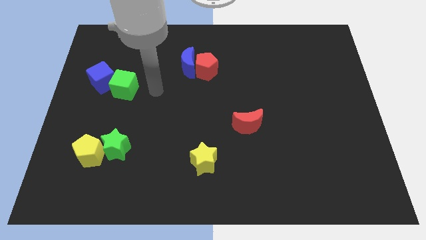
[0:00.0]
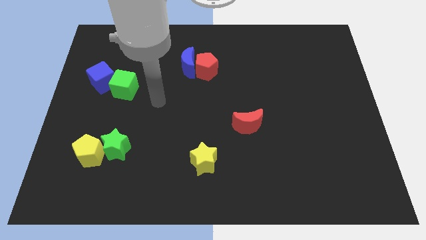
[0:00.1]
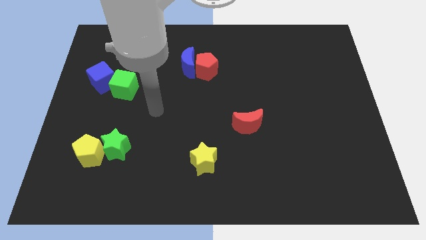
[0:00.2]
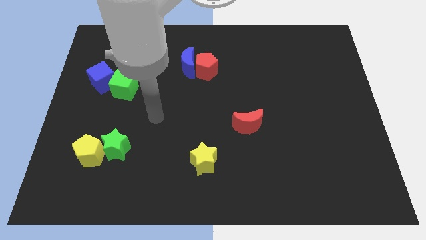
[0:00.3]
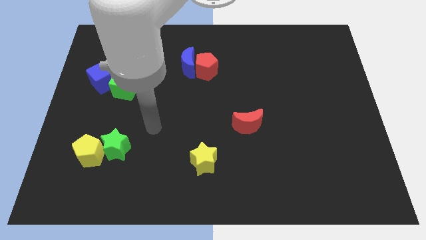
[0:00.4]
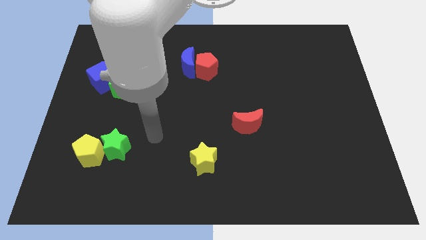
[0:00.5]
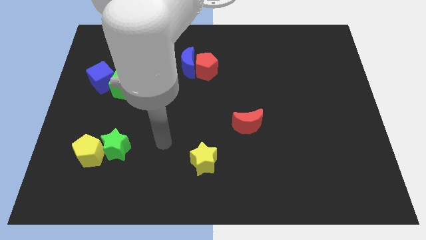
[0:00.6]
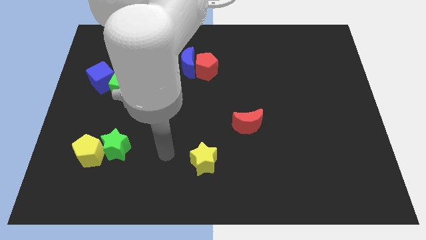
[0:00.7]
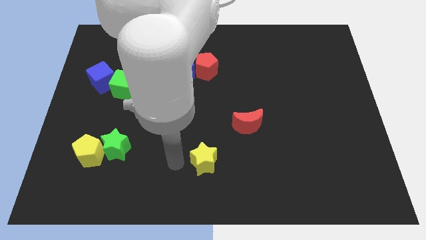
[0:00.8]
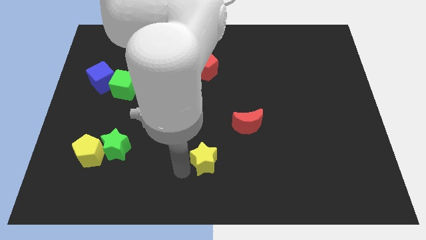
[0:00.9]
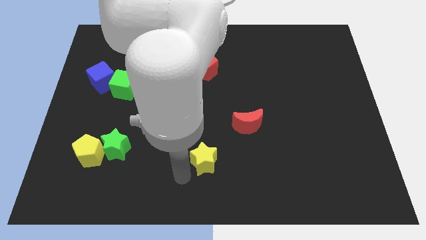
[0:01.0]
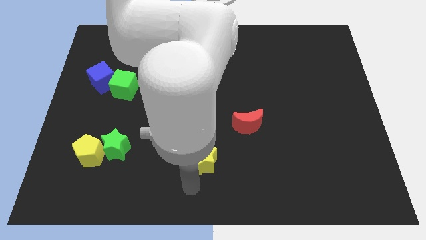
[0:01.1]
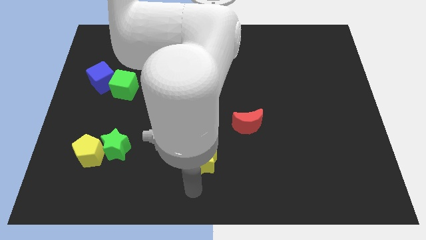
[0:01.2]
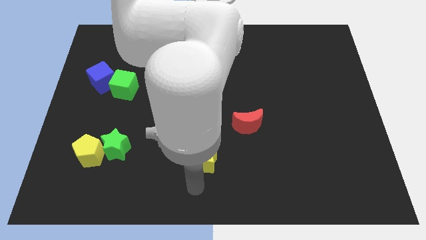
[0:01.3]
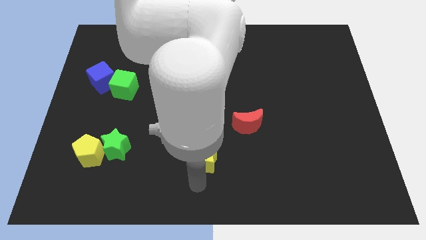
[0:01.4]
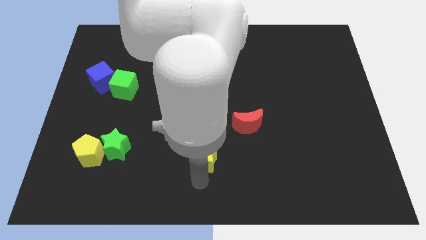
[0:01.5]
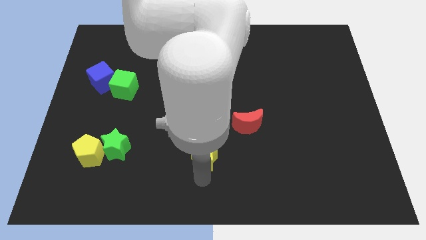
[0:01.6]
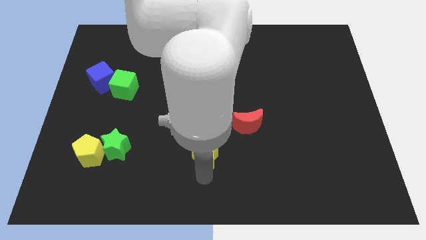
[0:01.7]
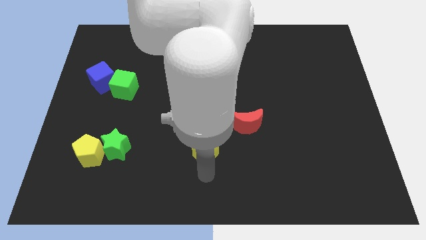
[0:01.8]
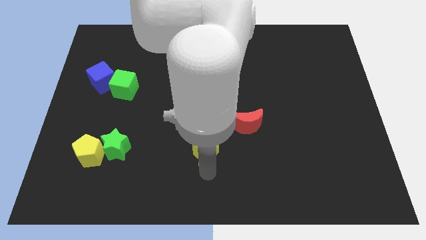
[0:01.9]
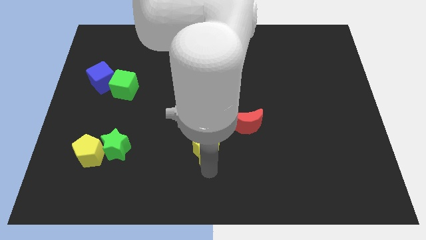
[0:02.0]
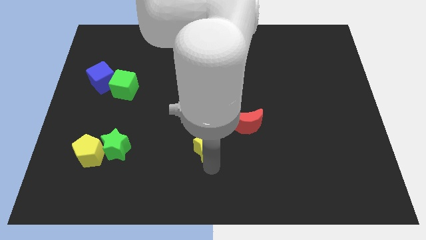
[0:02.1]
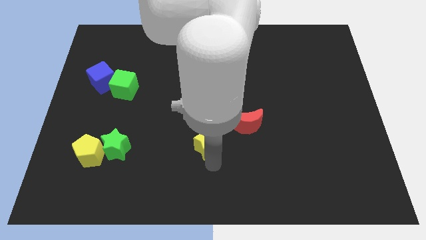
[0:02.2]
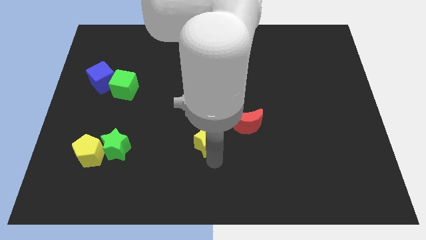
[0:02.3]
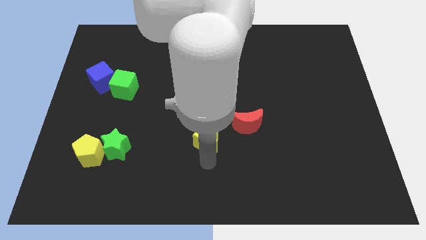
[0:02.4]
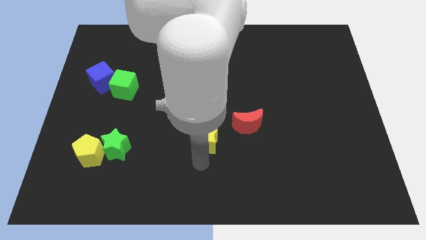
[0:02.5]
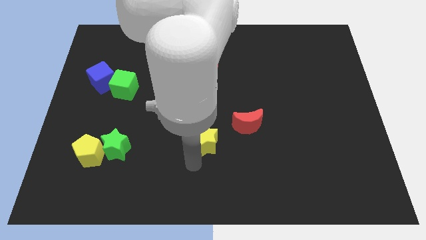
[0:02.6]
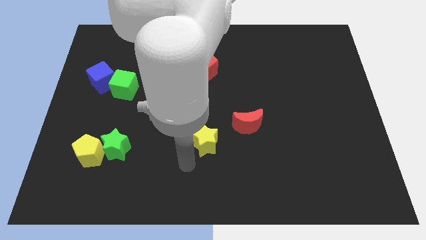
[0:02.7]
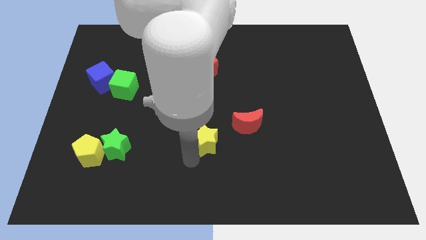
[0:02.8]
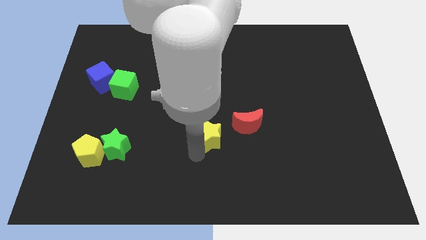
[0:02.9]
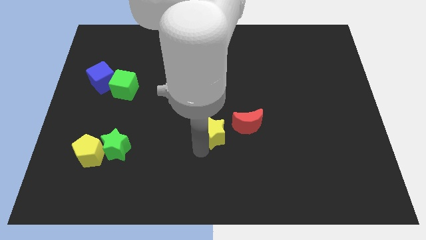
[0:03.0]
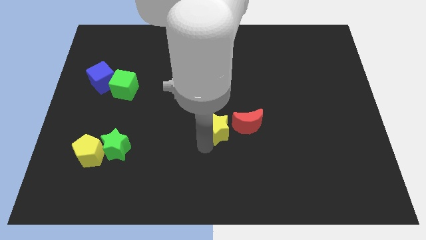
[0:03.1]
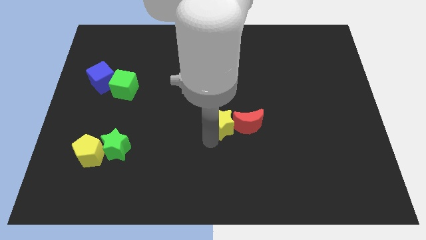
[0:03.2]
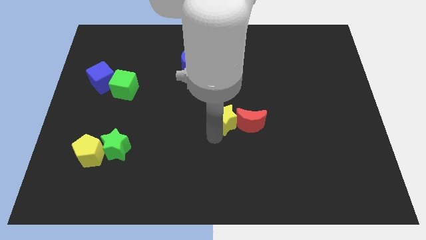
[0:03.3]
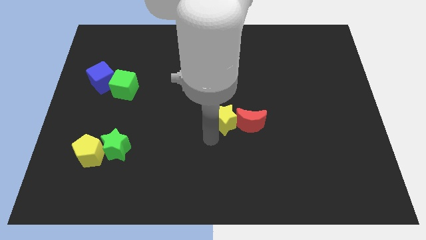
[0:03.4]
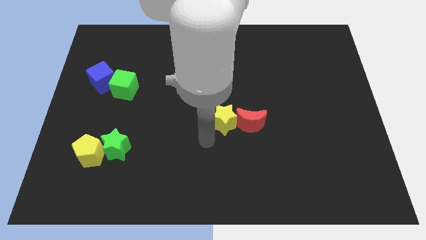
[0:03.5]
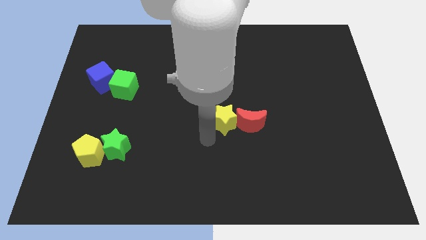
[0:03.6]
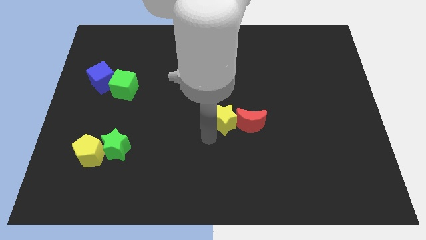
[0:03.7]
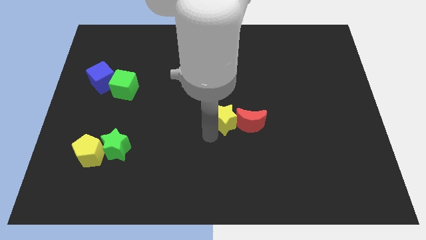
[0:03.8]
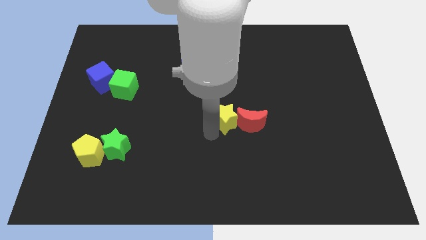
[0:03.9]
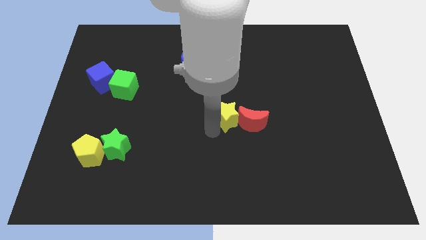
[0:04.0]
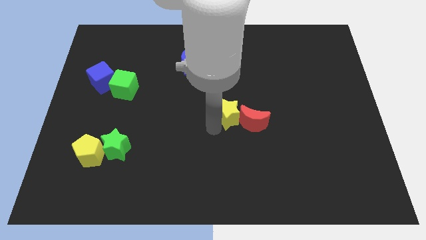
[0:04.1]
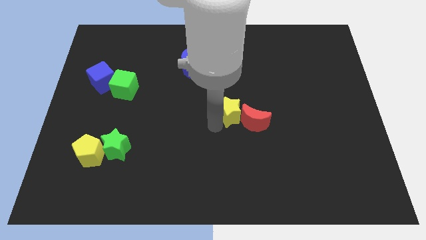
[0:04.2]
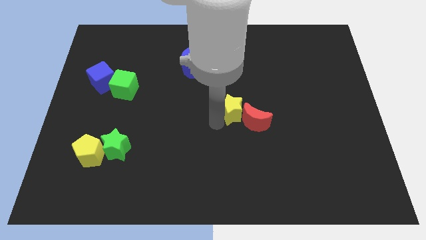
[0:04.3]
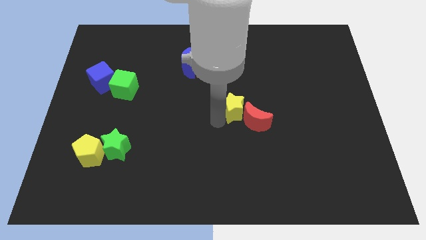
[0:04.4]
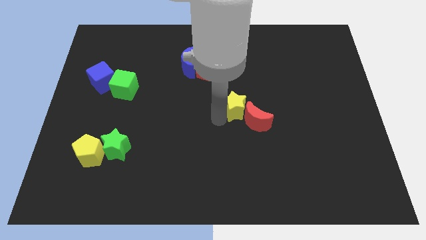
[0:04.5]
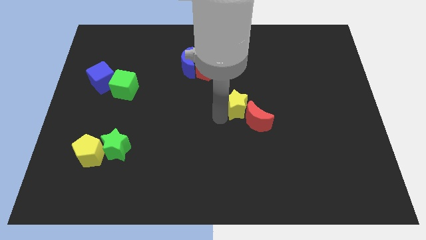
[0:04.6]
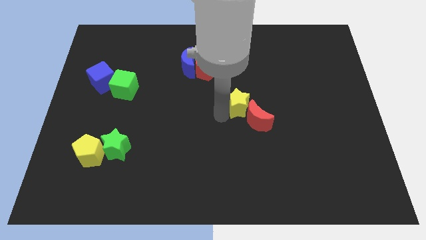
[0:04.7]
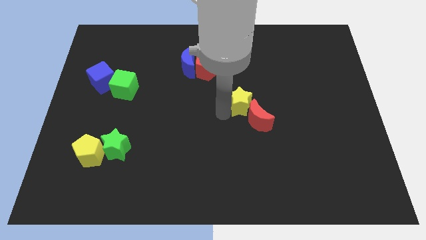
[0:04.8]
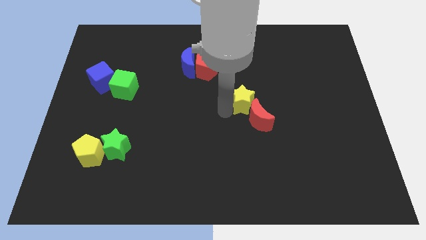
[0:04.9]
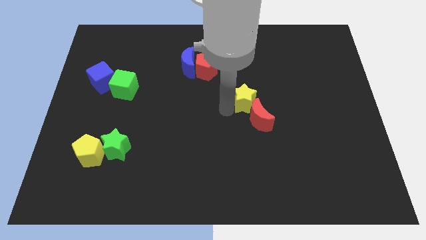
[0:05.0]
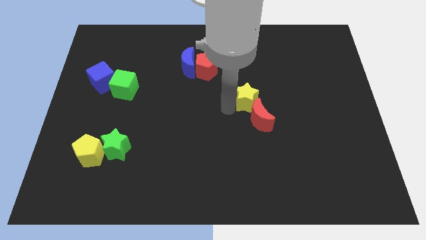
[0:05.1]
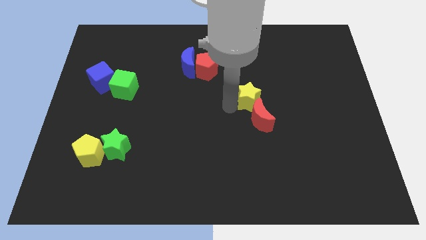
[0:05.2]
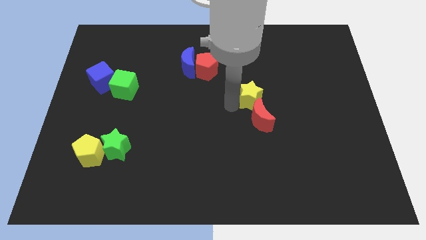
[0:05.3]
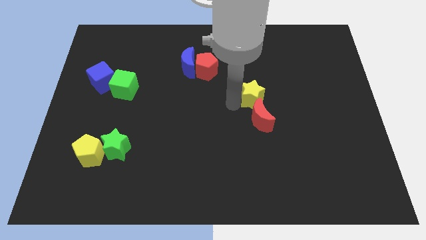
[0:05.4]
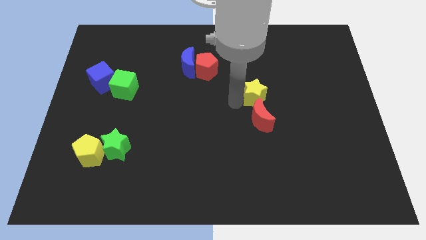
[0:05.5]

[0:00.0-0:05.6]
move the yellow star upwards and right diagonally

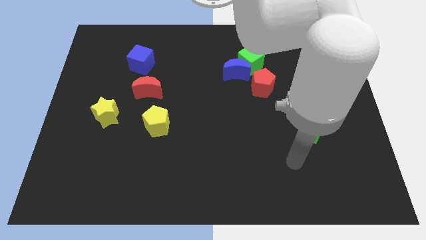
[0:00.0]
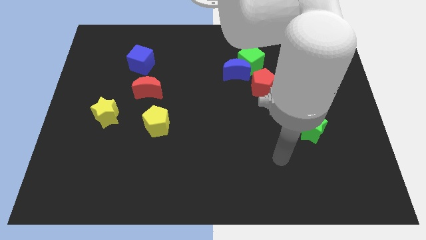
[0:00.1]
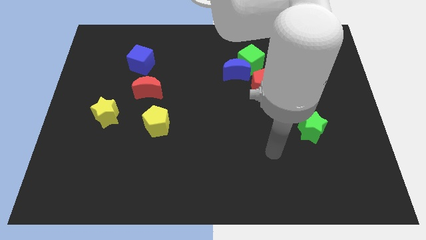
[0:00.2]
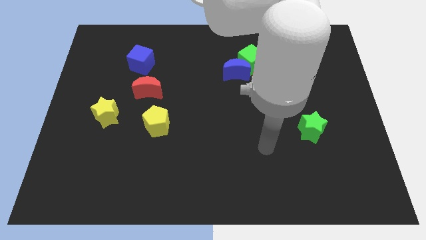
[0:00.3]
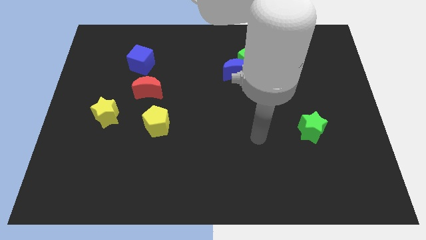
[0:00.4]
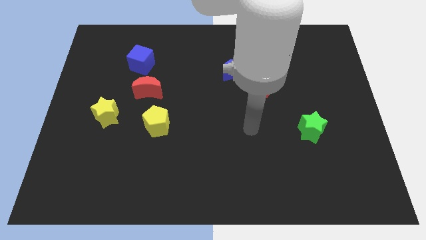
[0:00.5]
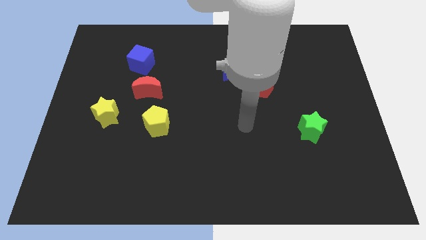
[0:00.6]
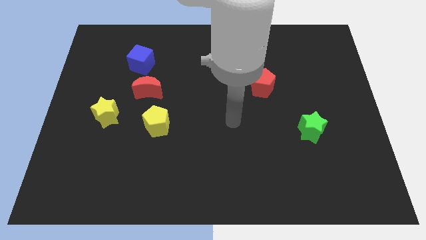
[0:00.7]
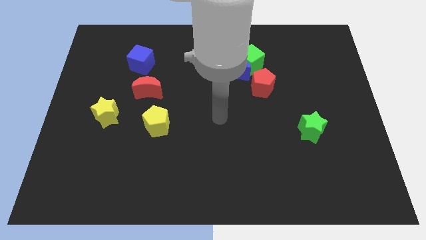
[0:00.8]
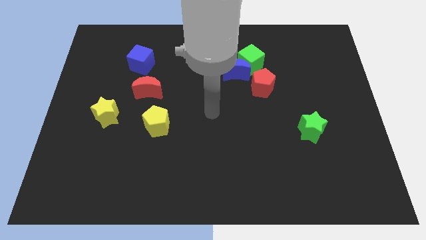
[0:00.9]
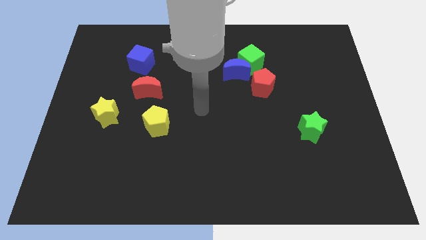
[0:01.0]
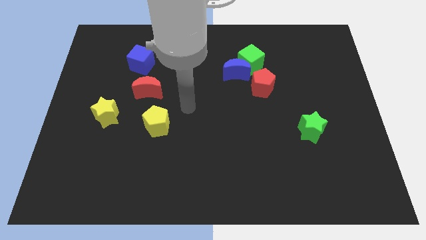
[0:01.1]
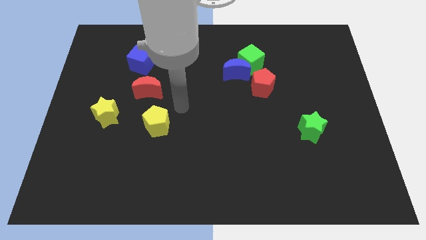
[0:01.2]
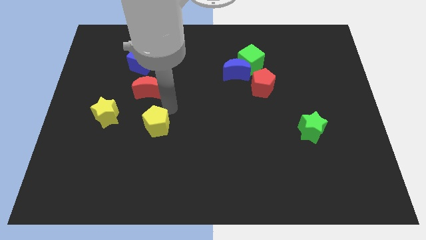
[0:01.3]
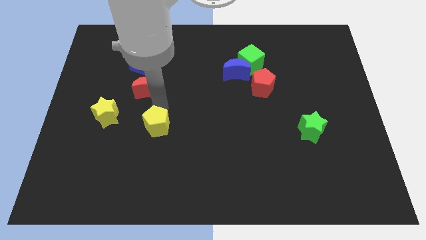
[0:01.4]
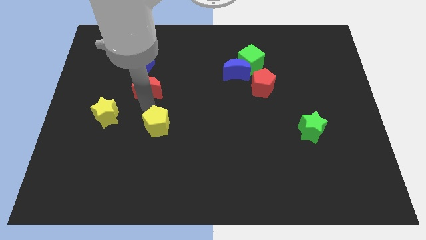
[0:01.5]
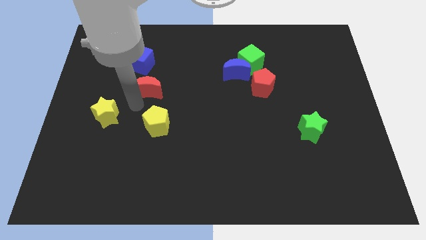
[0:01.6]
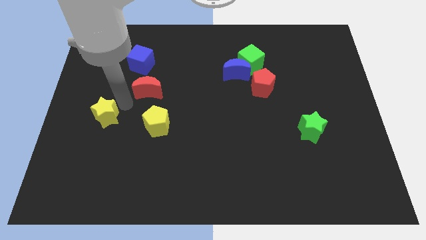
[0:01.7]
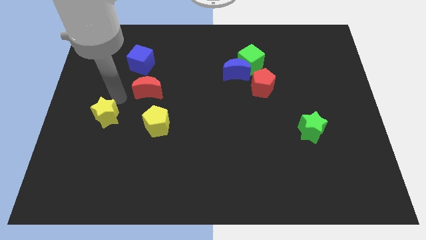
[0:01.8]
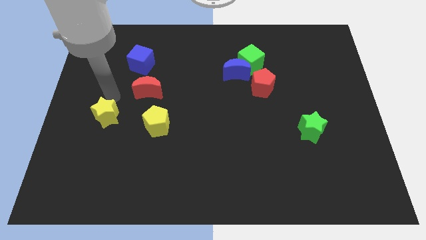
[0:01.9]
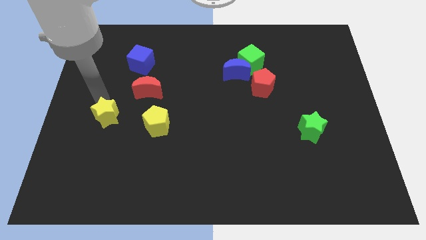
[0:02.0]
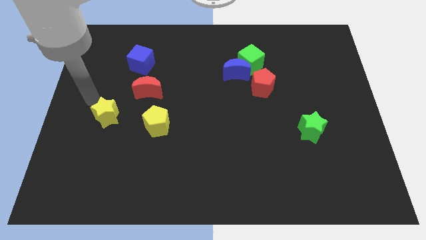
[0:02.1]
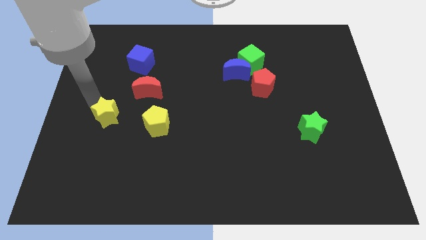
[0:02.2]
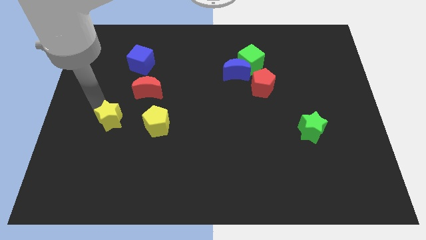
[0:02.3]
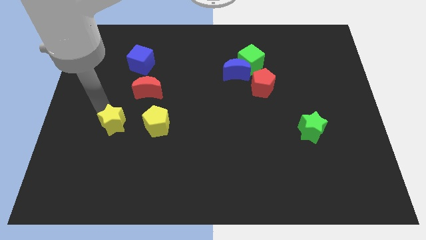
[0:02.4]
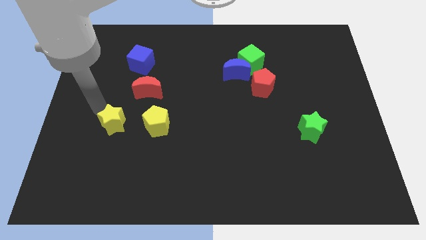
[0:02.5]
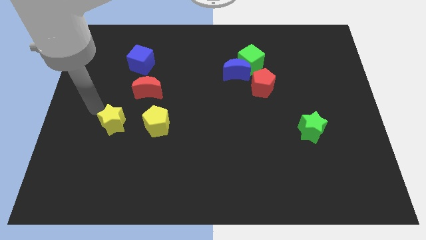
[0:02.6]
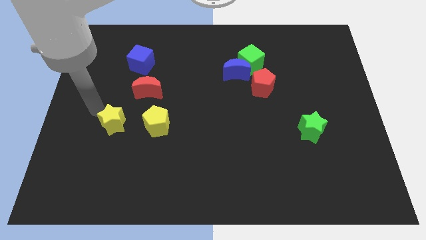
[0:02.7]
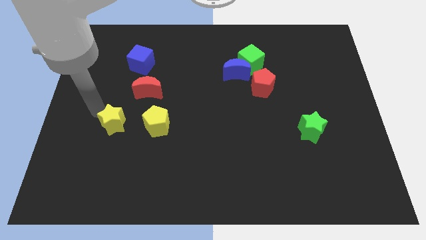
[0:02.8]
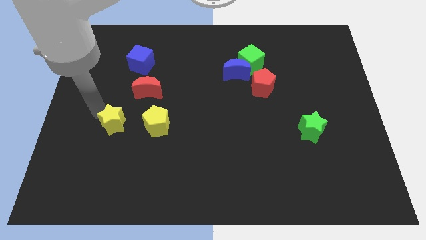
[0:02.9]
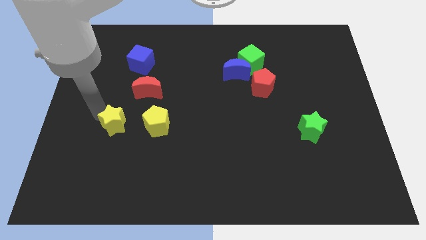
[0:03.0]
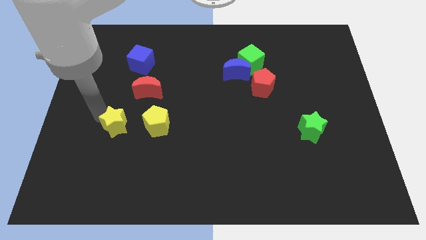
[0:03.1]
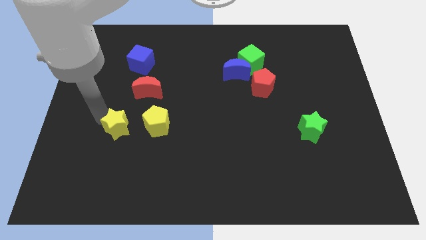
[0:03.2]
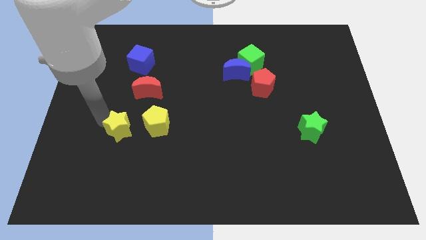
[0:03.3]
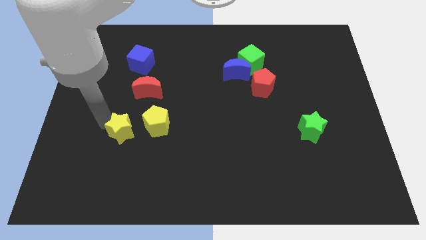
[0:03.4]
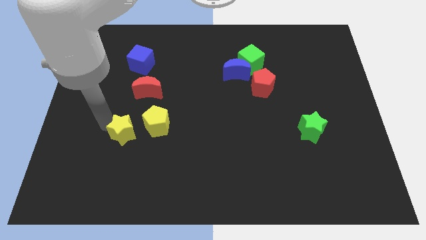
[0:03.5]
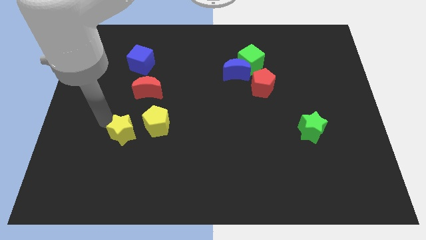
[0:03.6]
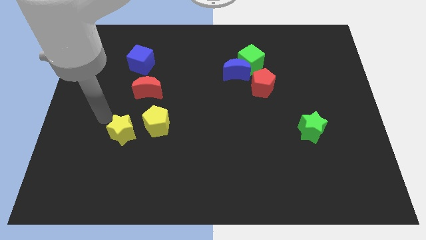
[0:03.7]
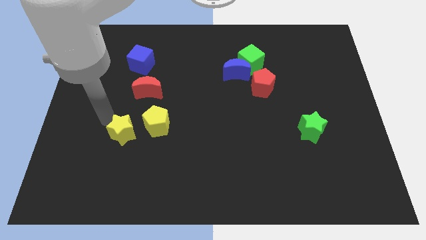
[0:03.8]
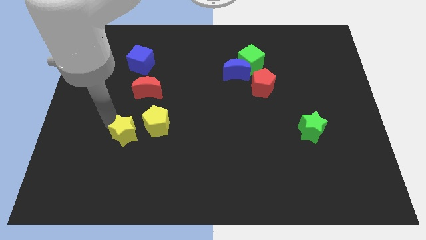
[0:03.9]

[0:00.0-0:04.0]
slightly move the yellow star diagonally downwards and to the right
